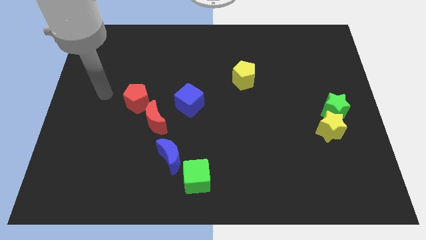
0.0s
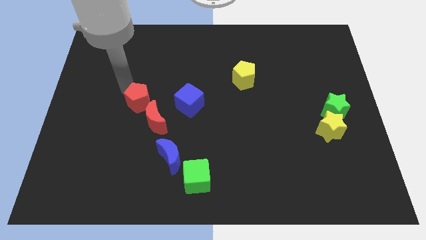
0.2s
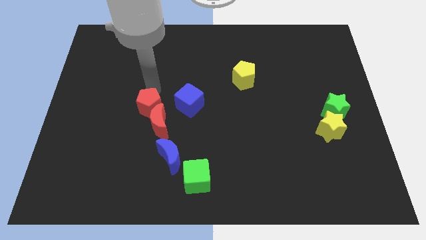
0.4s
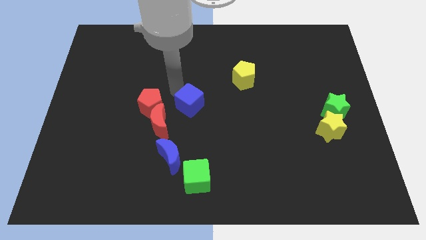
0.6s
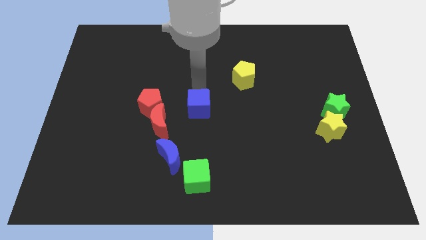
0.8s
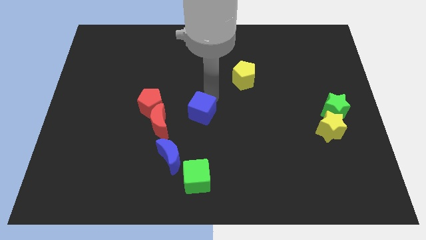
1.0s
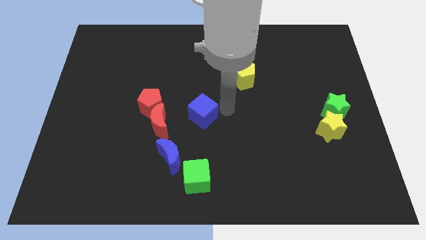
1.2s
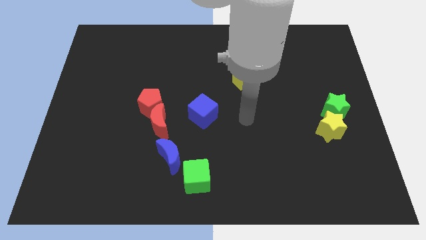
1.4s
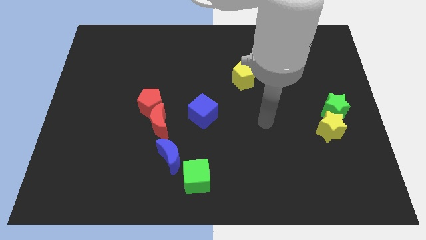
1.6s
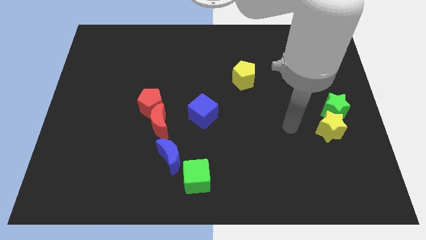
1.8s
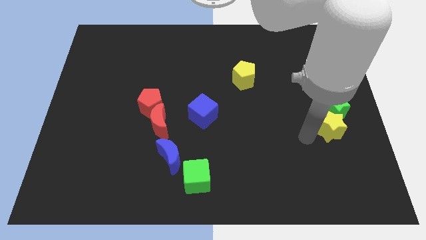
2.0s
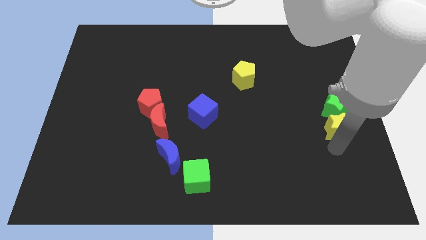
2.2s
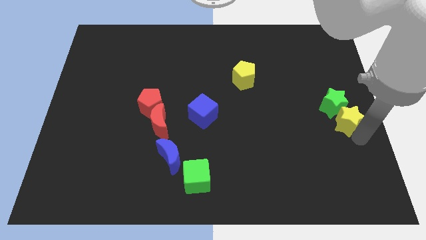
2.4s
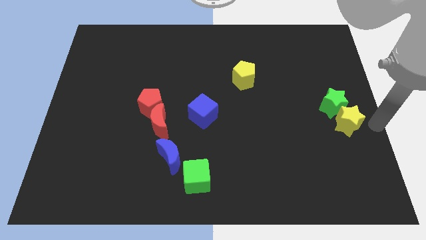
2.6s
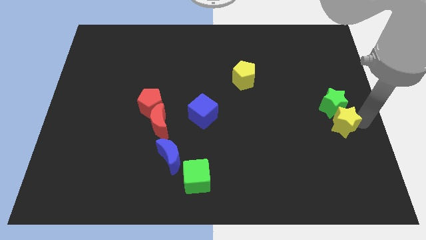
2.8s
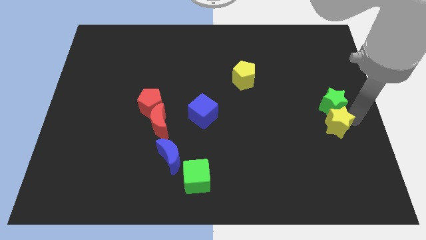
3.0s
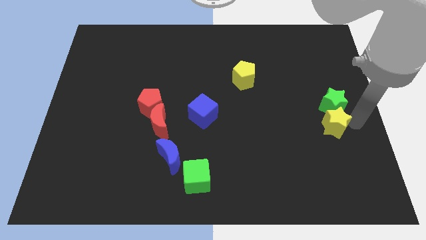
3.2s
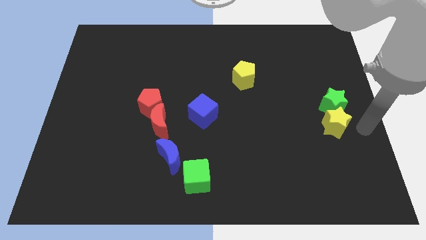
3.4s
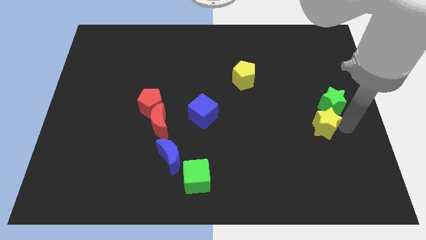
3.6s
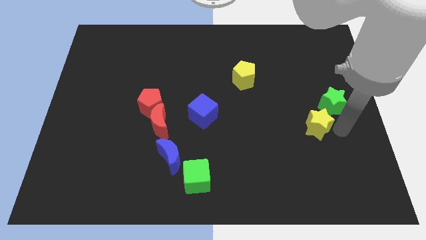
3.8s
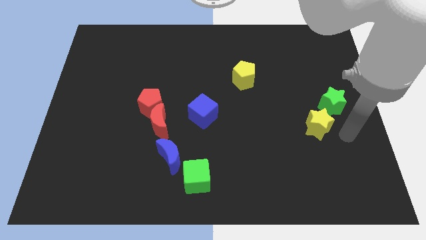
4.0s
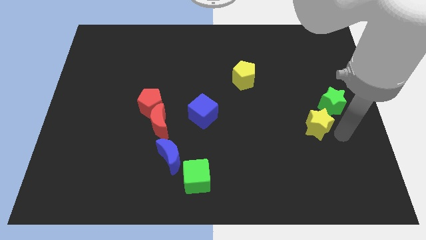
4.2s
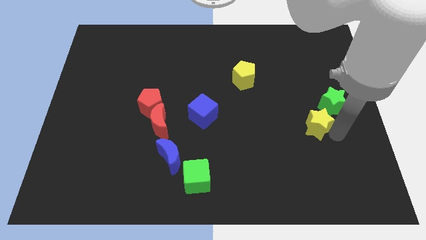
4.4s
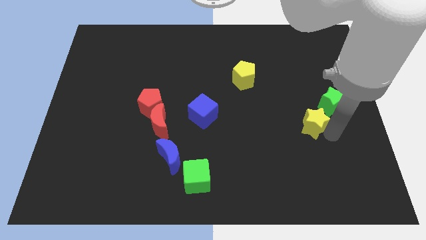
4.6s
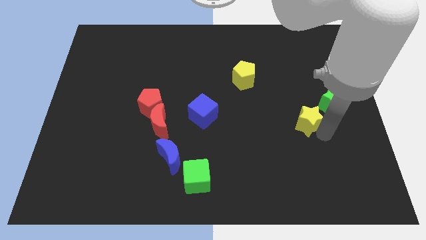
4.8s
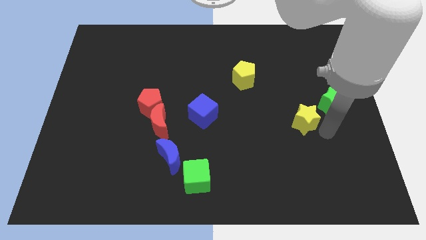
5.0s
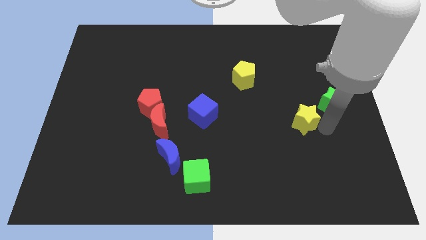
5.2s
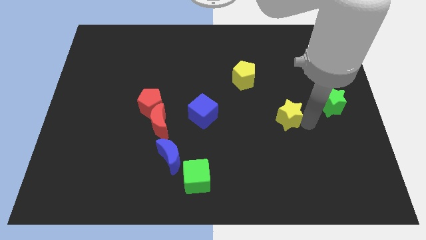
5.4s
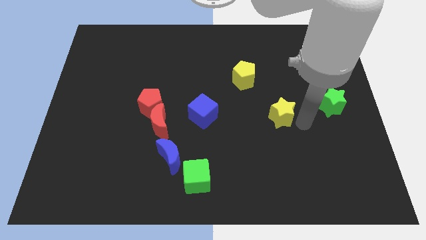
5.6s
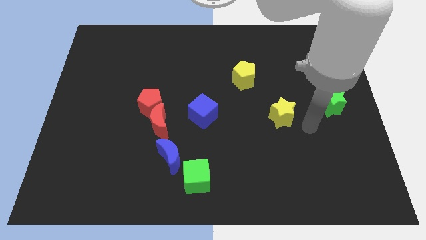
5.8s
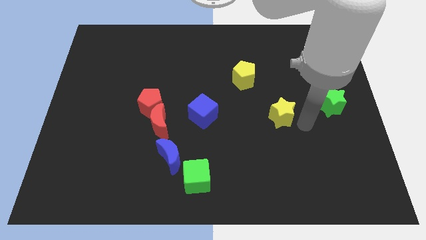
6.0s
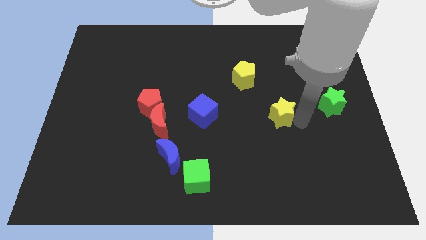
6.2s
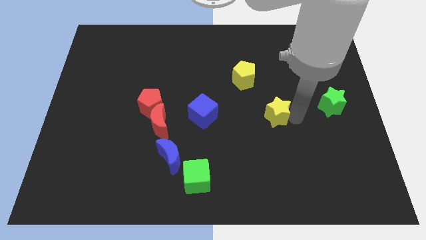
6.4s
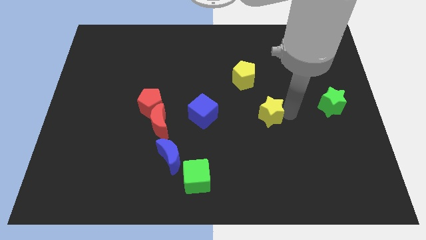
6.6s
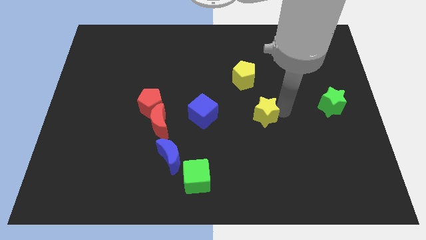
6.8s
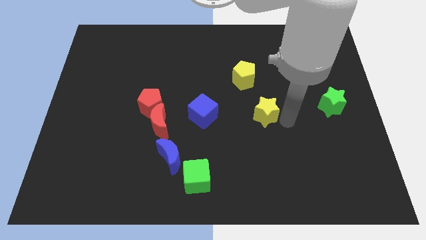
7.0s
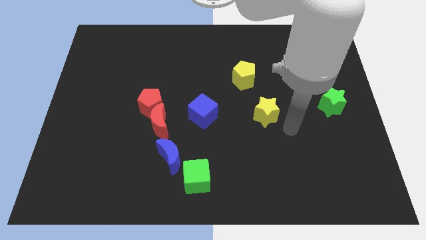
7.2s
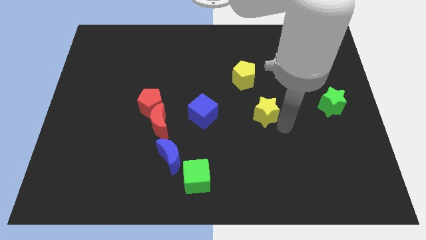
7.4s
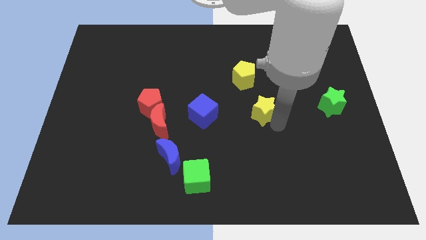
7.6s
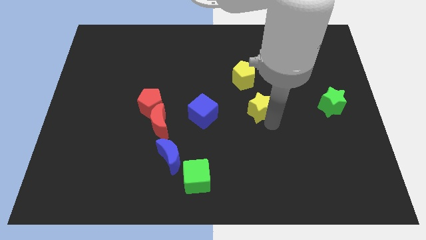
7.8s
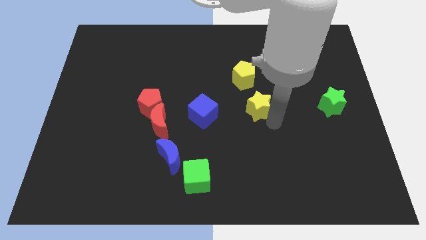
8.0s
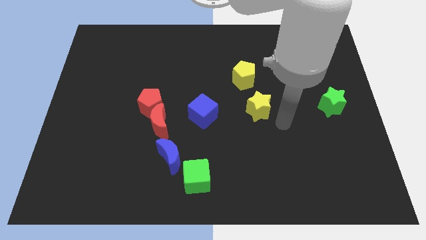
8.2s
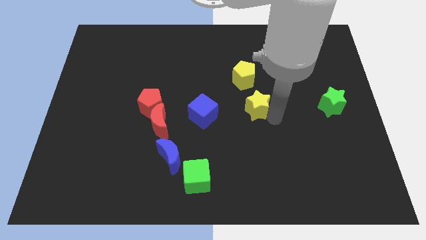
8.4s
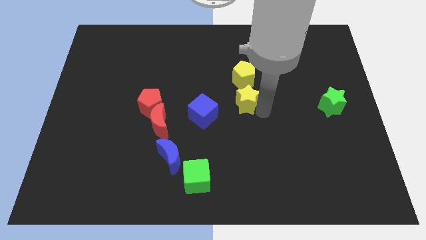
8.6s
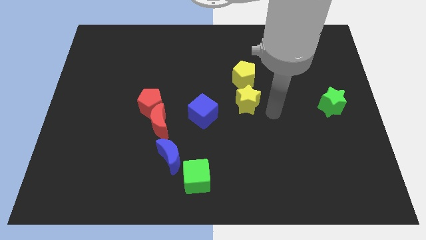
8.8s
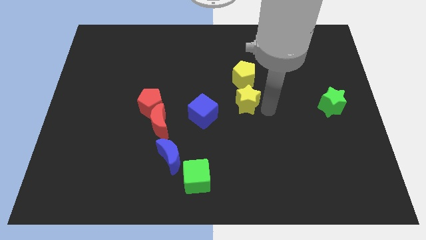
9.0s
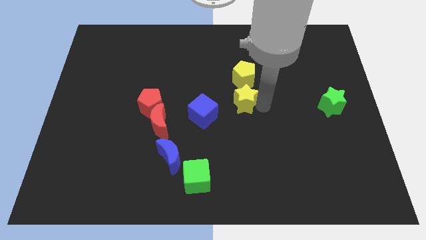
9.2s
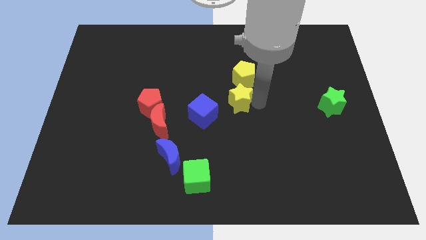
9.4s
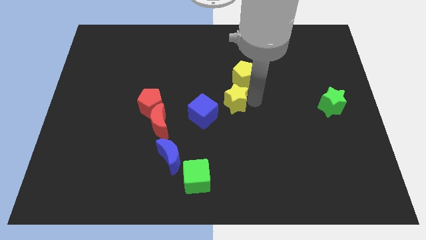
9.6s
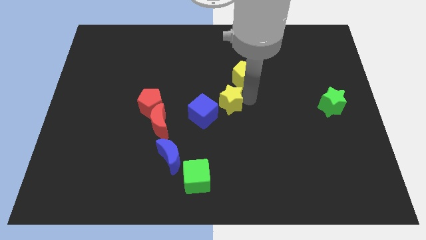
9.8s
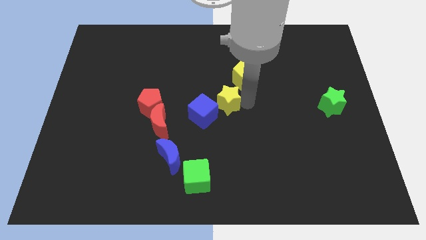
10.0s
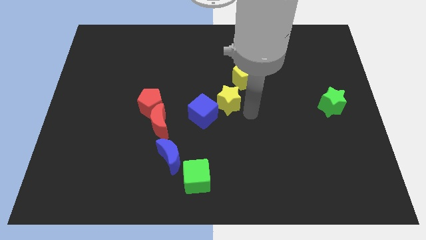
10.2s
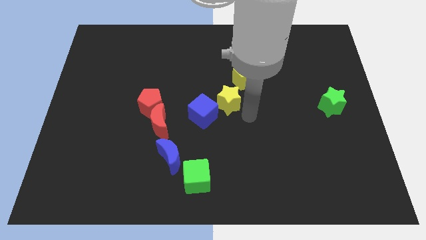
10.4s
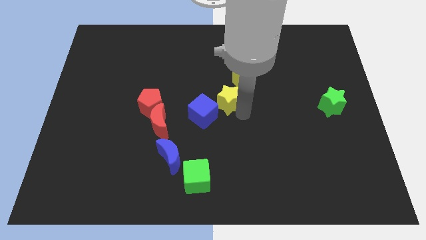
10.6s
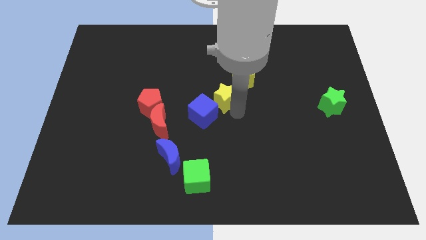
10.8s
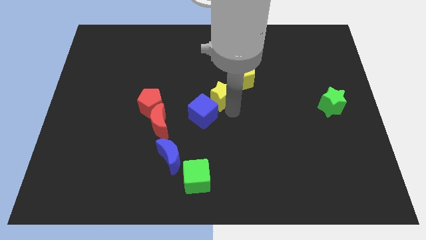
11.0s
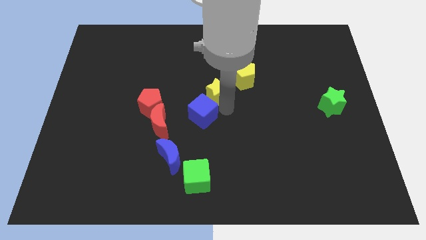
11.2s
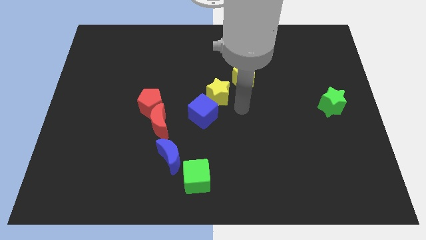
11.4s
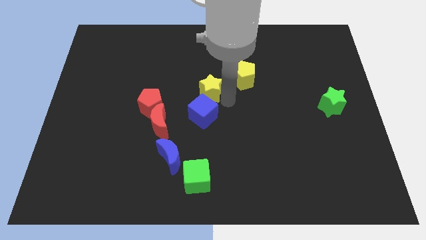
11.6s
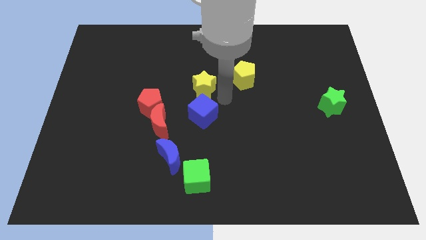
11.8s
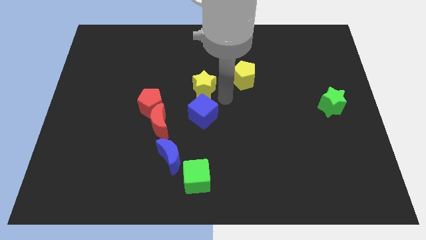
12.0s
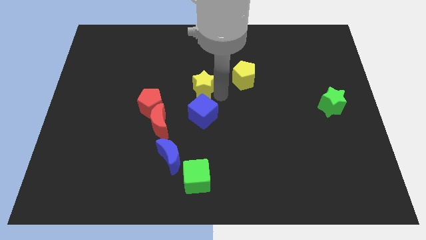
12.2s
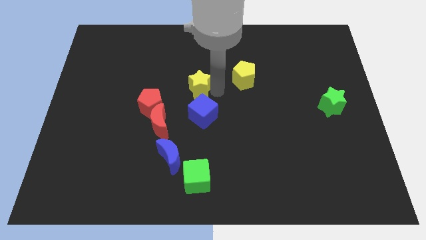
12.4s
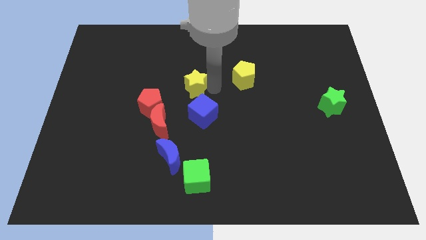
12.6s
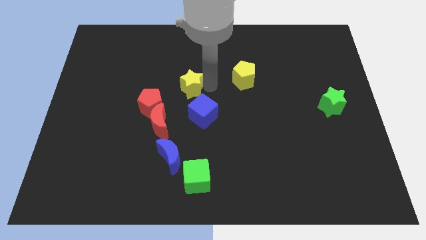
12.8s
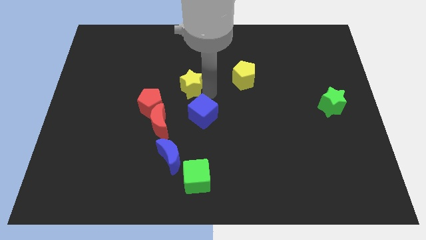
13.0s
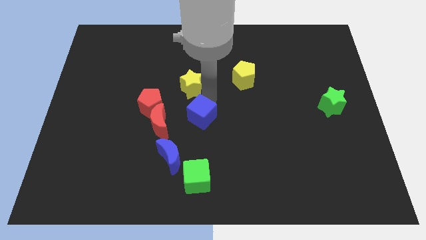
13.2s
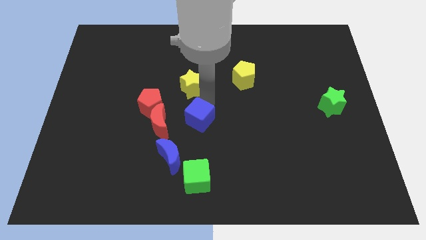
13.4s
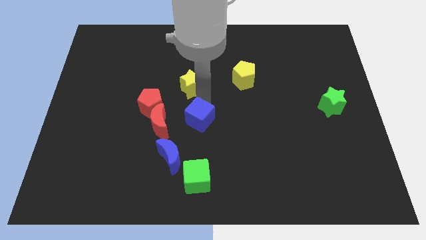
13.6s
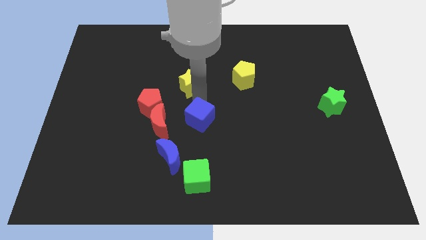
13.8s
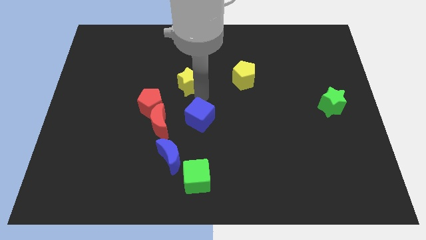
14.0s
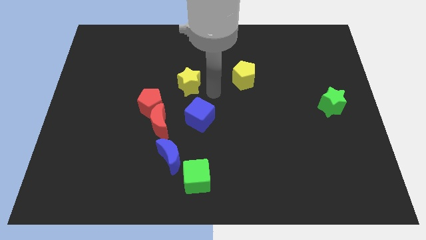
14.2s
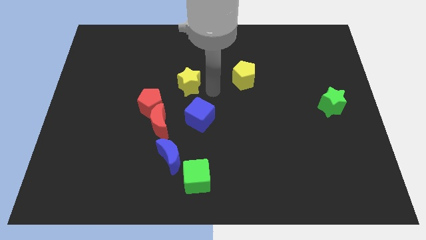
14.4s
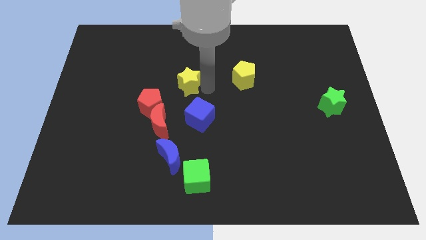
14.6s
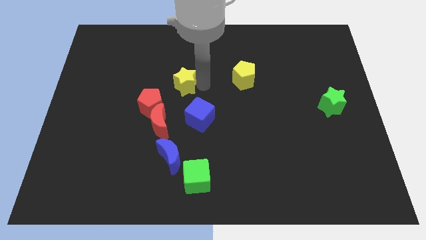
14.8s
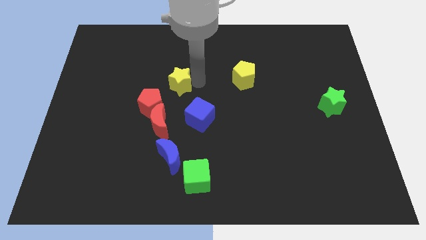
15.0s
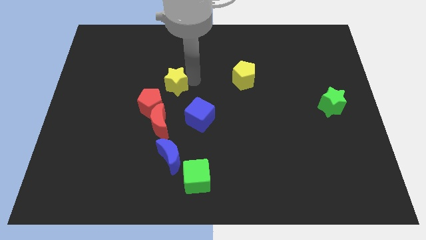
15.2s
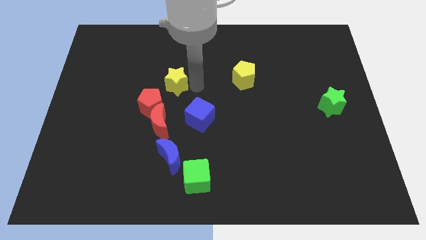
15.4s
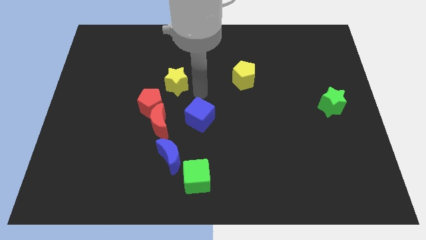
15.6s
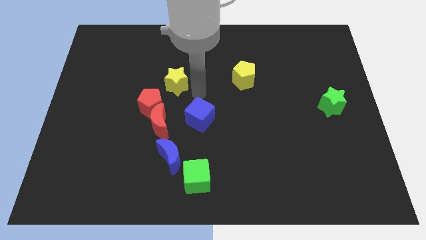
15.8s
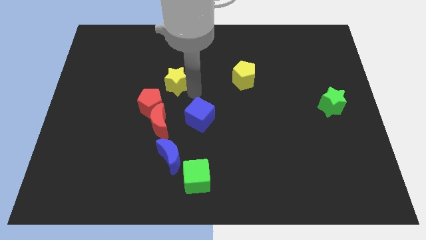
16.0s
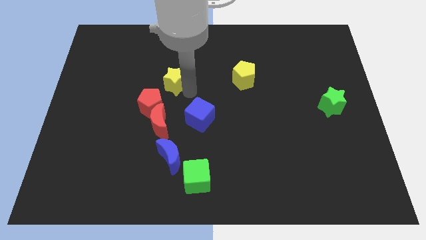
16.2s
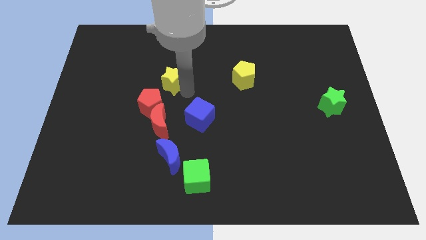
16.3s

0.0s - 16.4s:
slide the yellow star above the red pentagon
